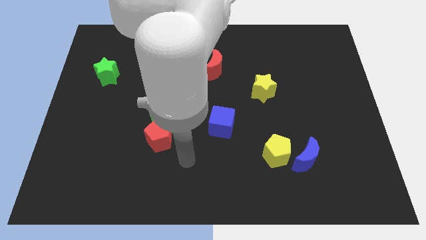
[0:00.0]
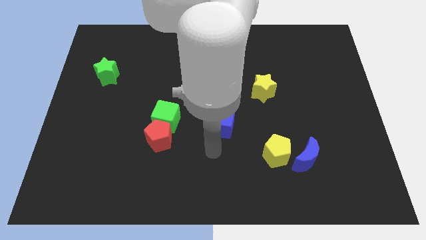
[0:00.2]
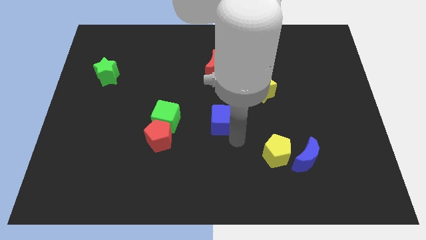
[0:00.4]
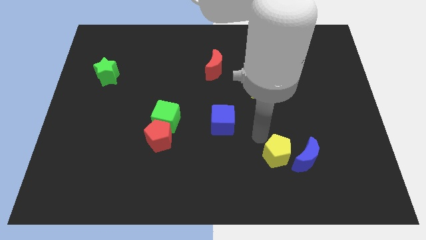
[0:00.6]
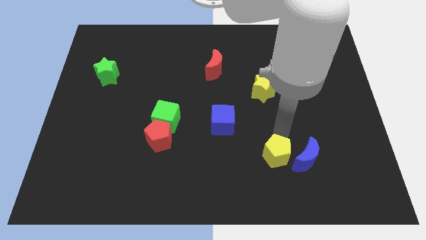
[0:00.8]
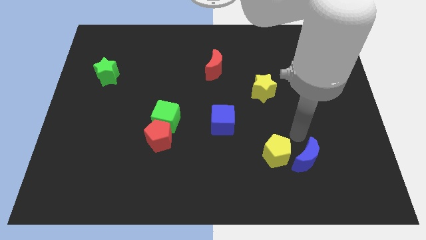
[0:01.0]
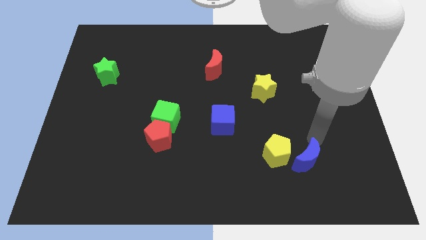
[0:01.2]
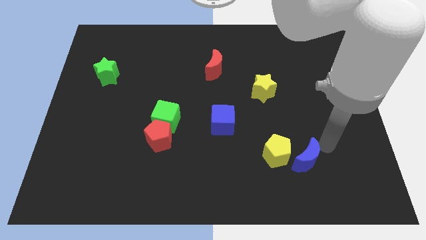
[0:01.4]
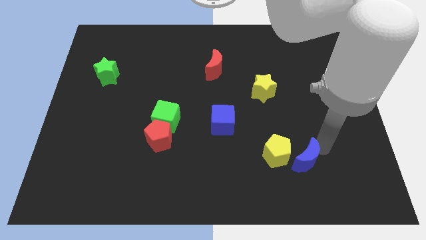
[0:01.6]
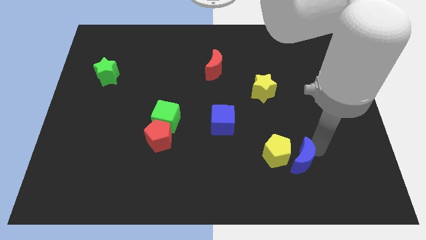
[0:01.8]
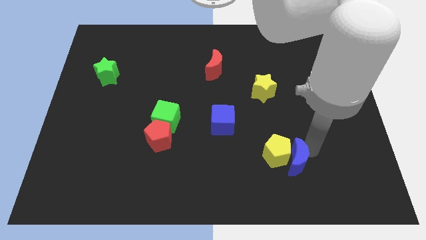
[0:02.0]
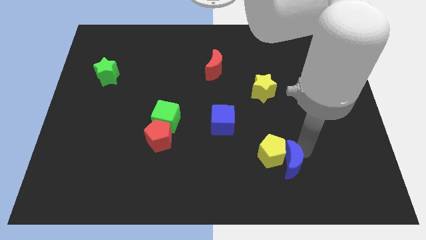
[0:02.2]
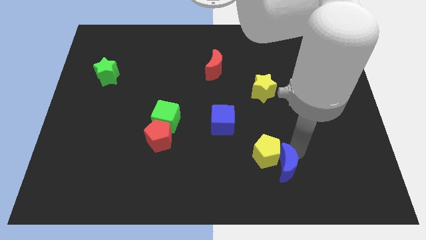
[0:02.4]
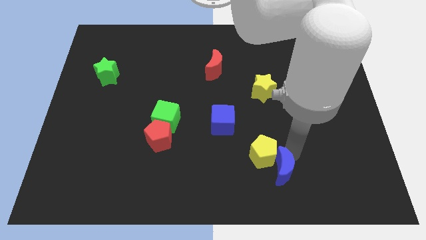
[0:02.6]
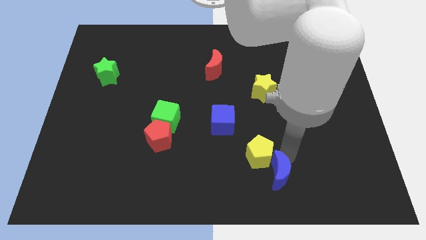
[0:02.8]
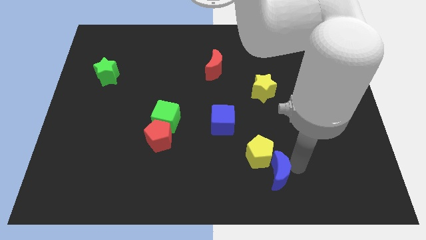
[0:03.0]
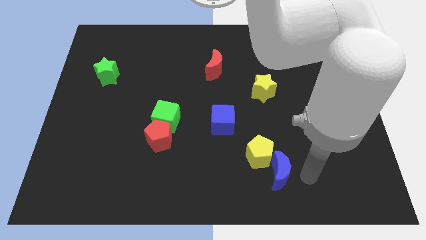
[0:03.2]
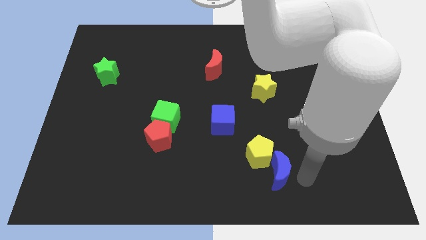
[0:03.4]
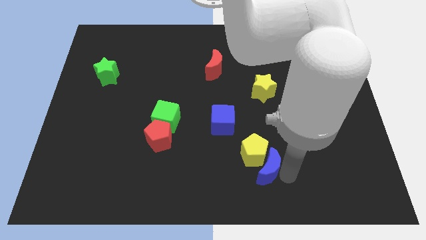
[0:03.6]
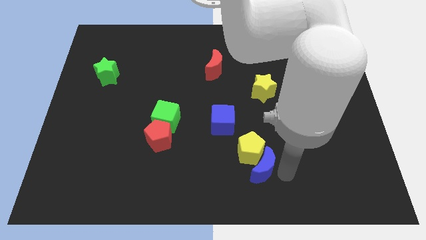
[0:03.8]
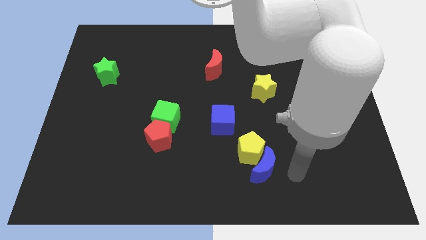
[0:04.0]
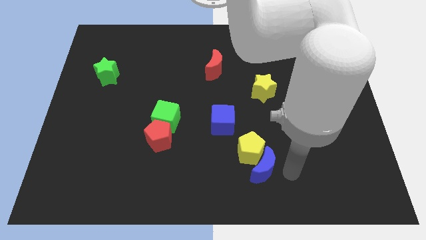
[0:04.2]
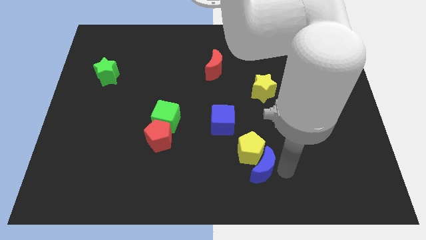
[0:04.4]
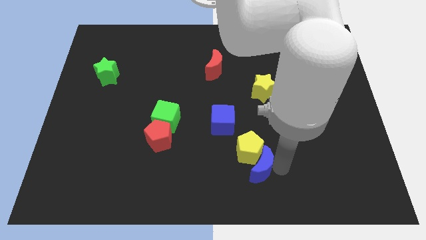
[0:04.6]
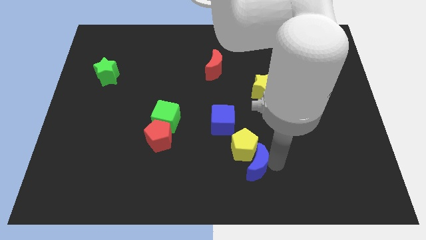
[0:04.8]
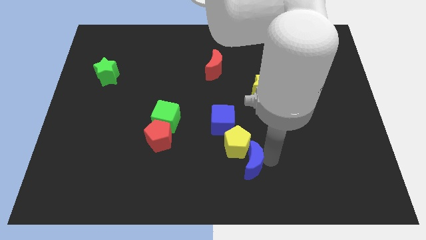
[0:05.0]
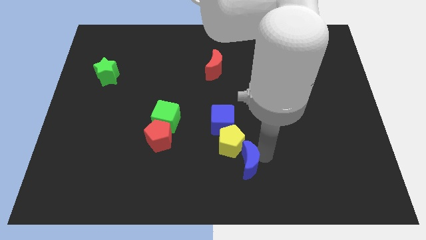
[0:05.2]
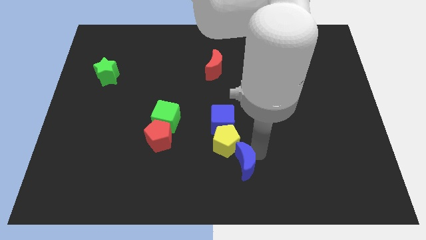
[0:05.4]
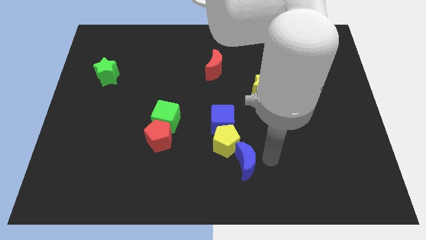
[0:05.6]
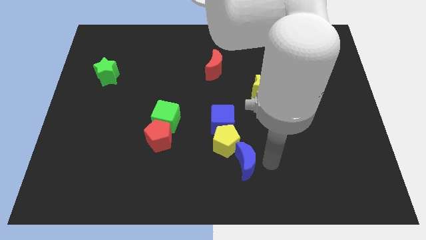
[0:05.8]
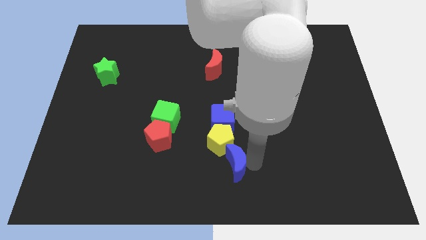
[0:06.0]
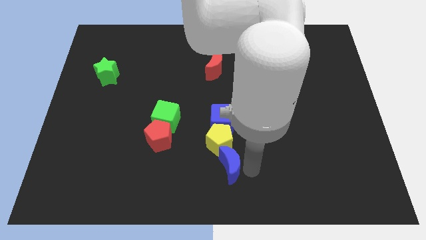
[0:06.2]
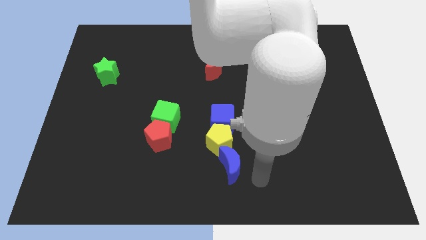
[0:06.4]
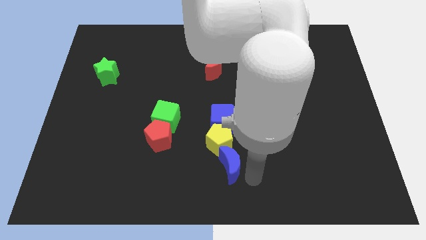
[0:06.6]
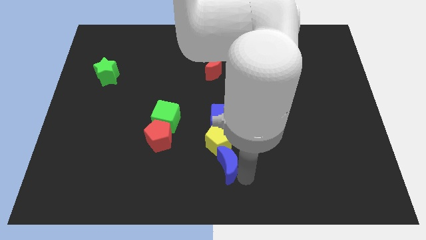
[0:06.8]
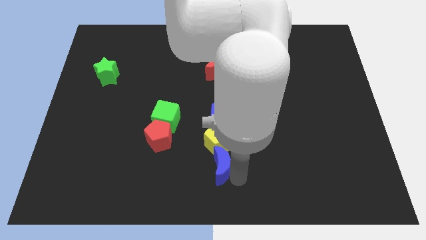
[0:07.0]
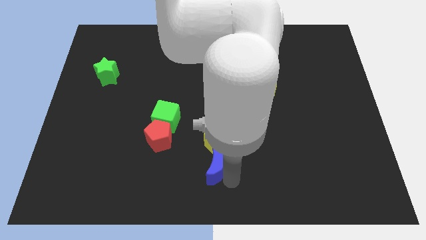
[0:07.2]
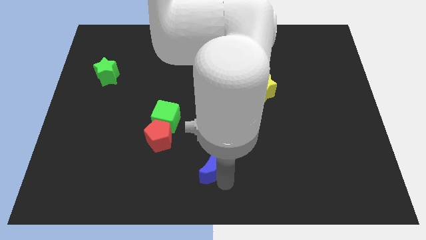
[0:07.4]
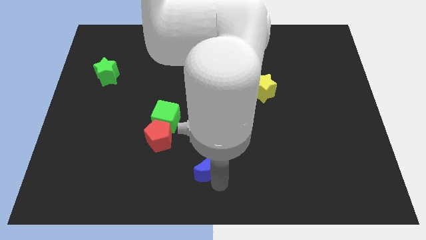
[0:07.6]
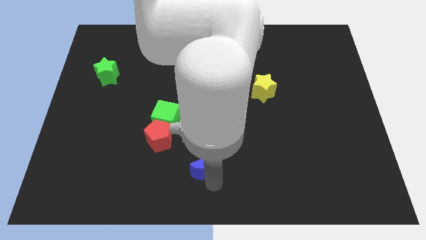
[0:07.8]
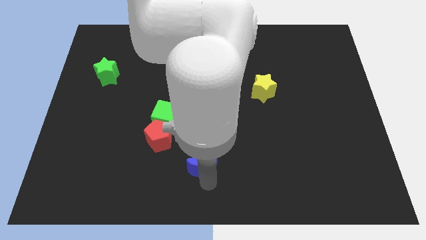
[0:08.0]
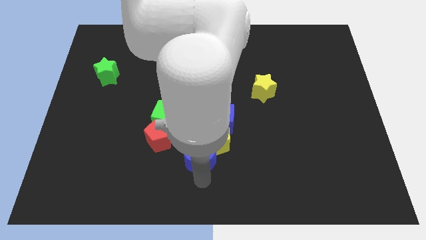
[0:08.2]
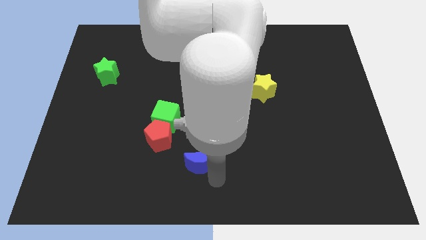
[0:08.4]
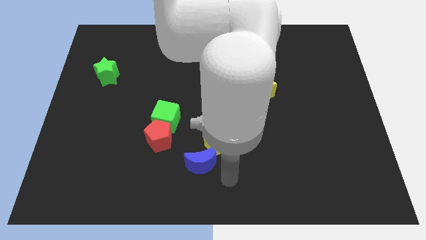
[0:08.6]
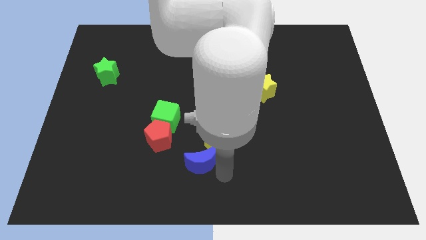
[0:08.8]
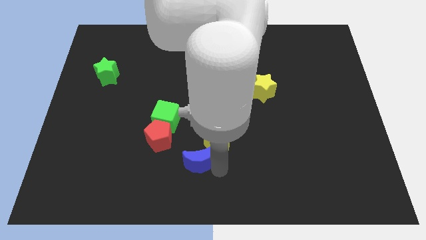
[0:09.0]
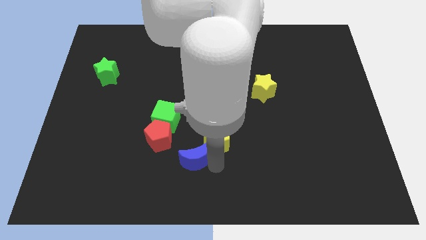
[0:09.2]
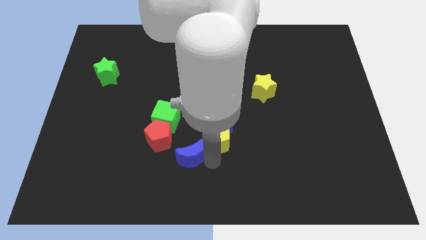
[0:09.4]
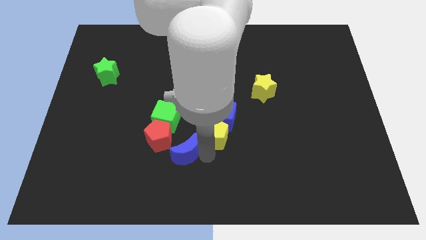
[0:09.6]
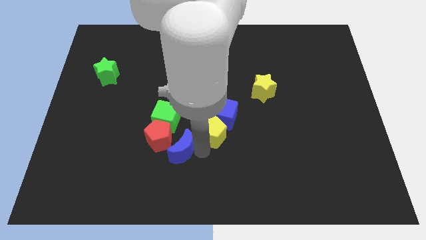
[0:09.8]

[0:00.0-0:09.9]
move the blue moon next to the red pentagon

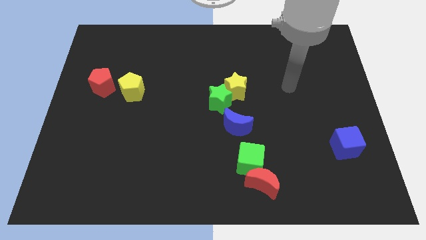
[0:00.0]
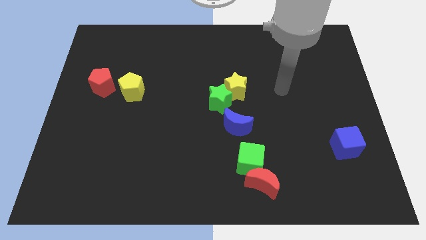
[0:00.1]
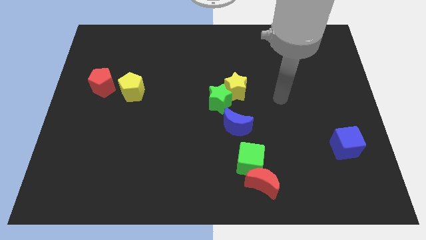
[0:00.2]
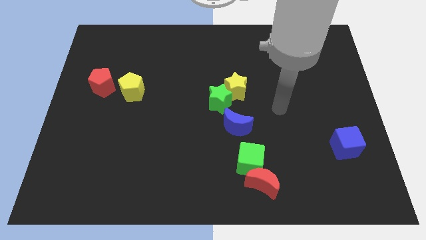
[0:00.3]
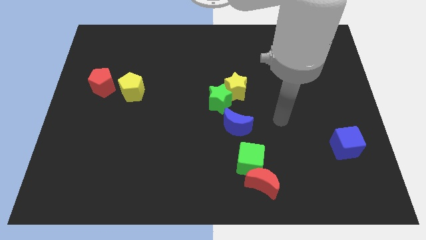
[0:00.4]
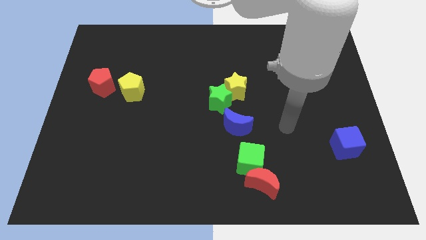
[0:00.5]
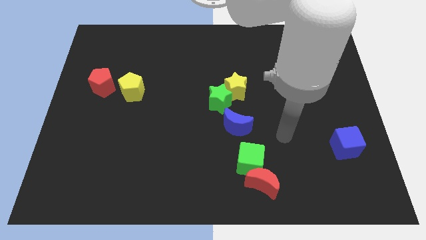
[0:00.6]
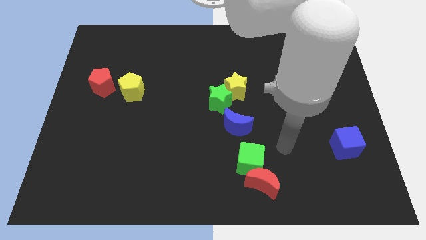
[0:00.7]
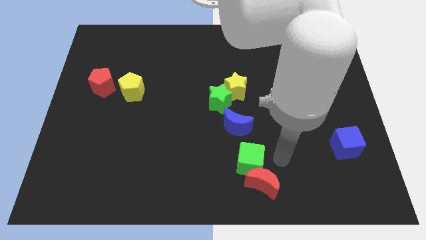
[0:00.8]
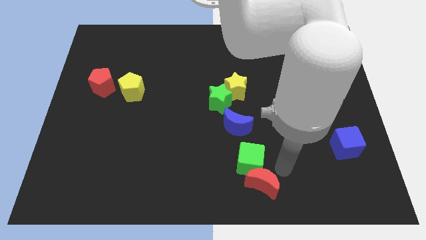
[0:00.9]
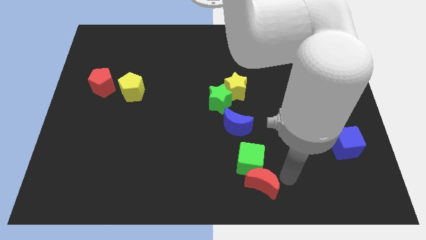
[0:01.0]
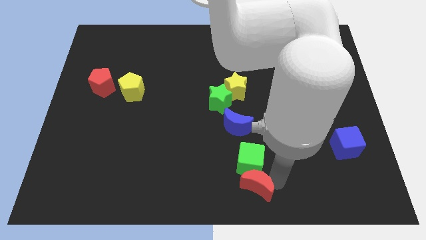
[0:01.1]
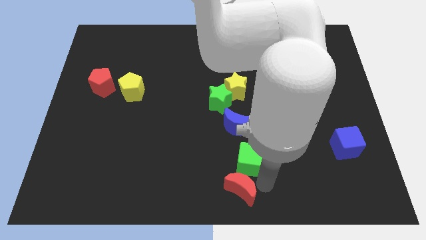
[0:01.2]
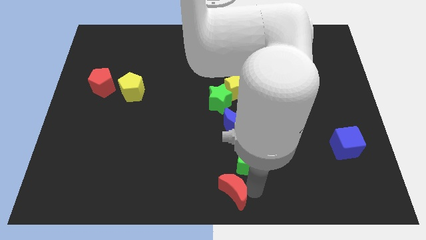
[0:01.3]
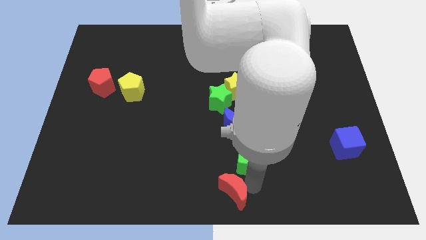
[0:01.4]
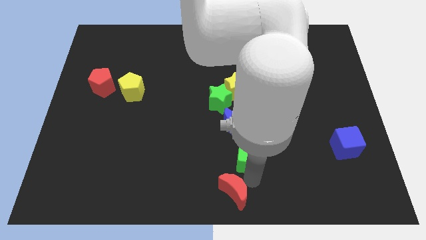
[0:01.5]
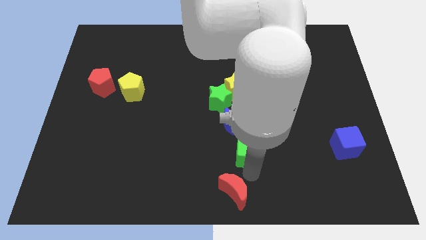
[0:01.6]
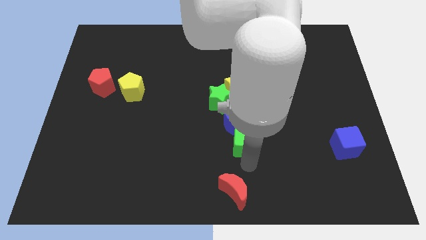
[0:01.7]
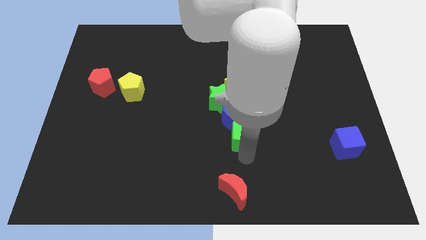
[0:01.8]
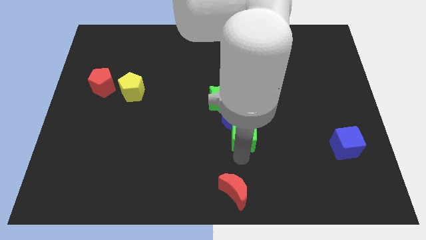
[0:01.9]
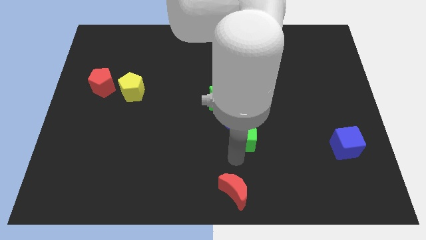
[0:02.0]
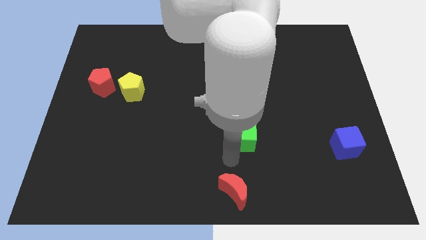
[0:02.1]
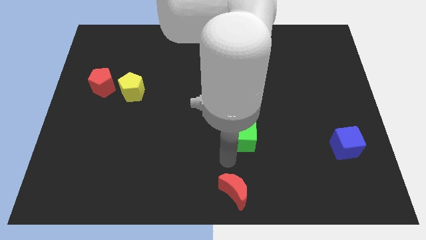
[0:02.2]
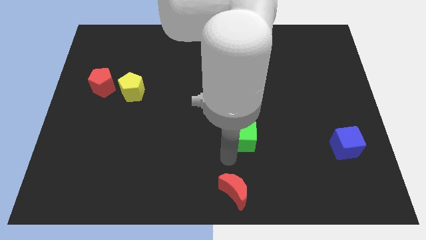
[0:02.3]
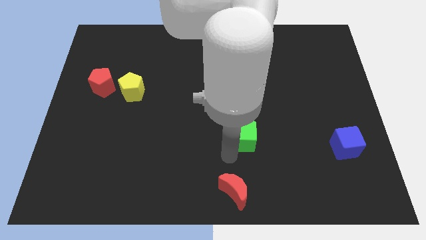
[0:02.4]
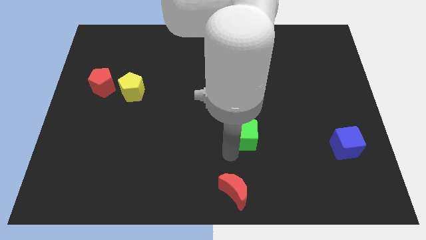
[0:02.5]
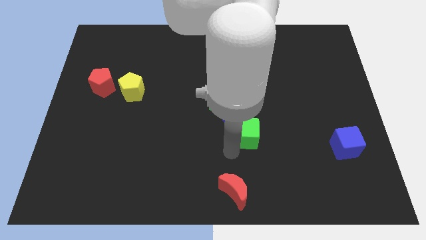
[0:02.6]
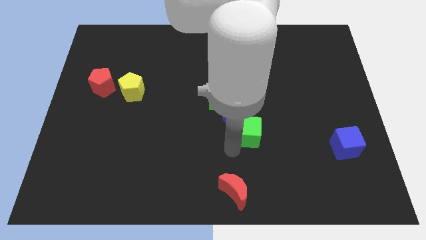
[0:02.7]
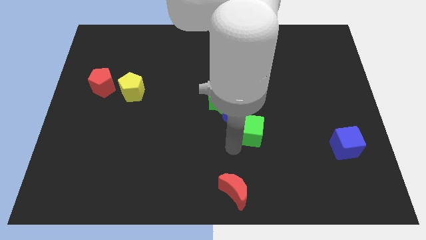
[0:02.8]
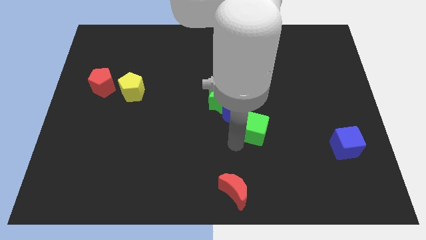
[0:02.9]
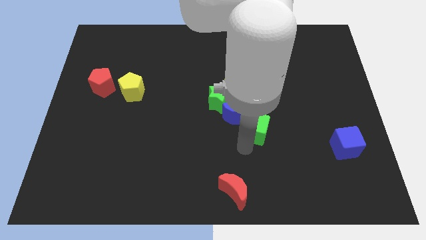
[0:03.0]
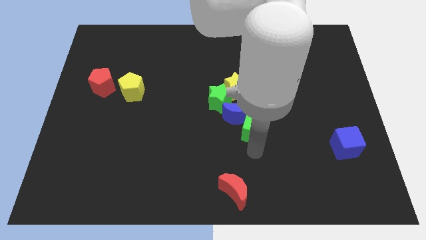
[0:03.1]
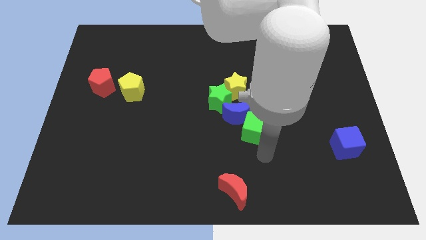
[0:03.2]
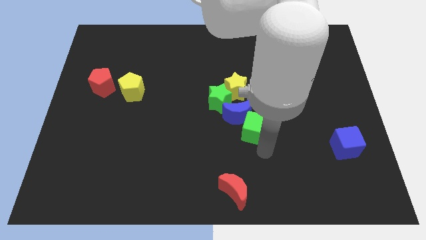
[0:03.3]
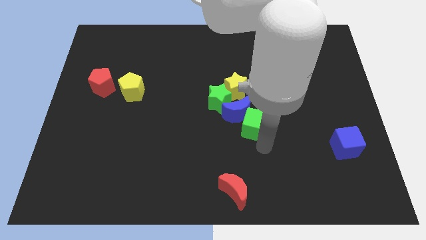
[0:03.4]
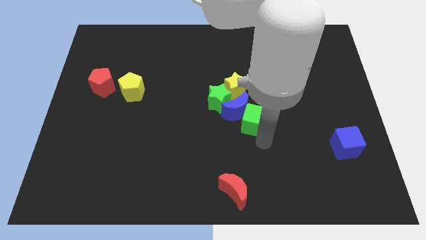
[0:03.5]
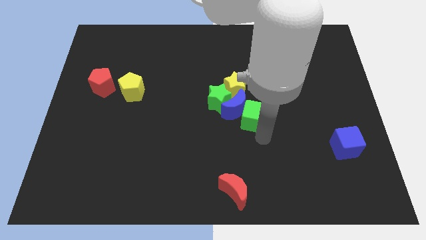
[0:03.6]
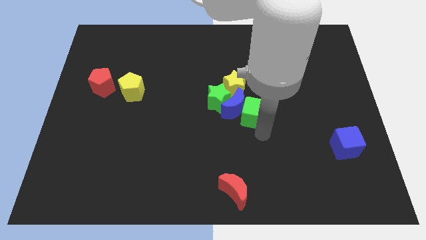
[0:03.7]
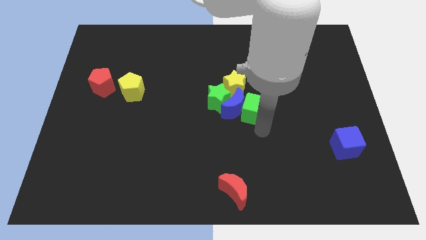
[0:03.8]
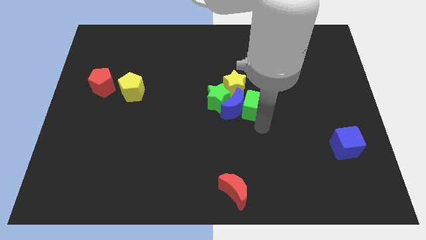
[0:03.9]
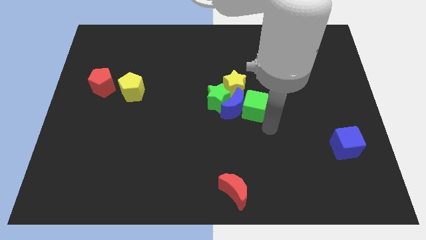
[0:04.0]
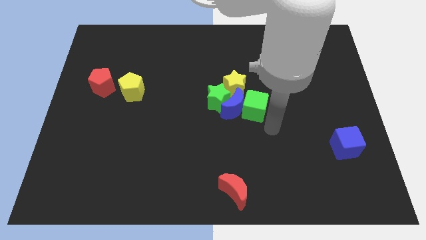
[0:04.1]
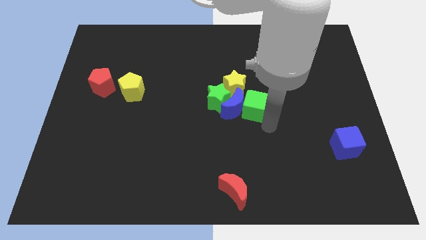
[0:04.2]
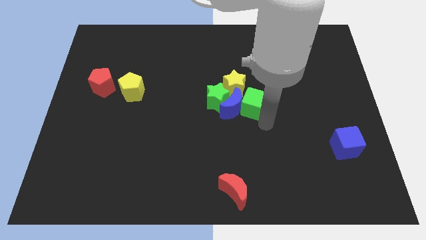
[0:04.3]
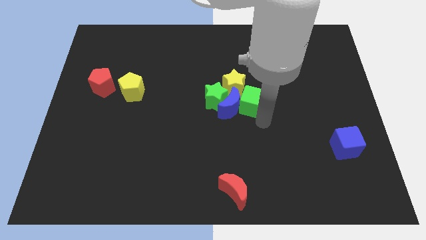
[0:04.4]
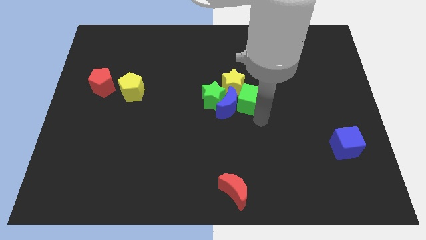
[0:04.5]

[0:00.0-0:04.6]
slide the green cube towards the yellow star
